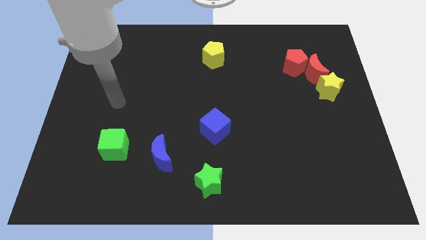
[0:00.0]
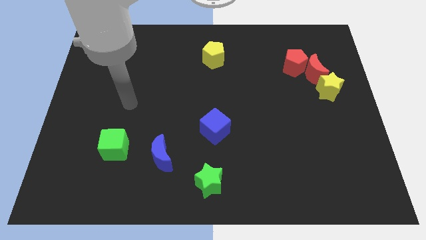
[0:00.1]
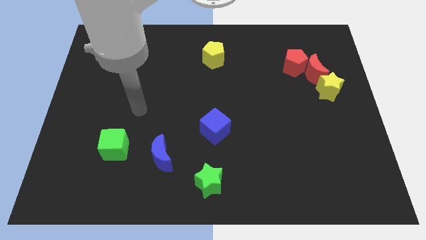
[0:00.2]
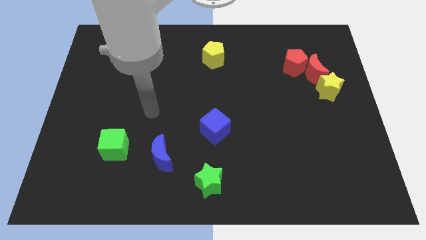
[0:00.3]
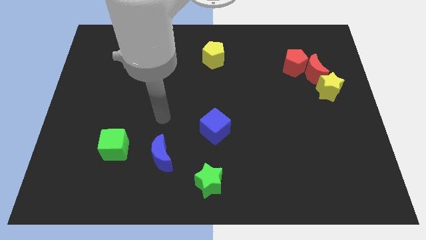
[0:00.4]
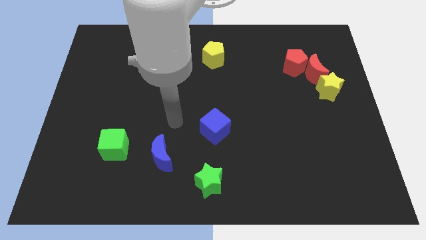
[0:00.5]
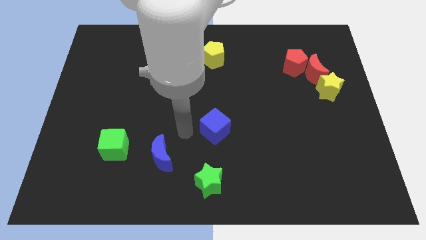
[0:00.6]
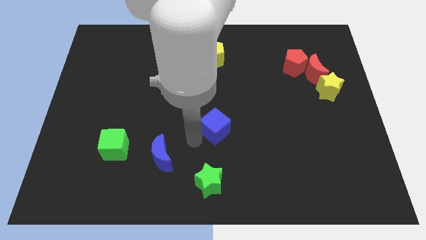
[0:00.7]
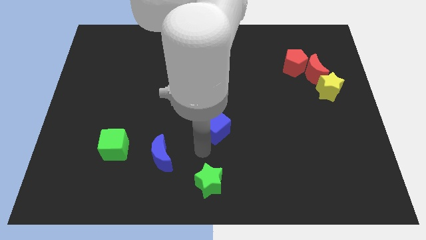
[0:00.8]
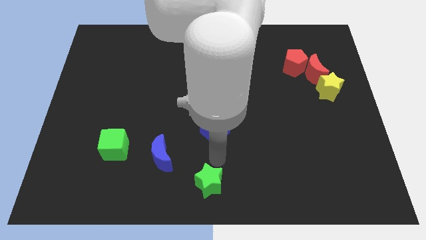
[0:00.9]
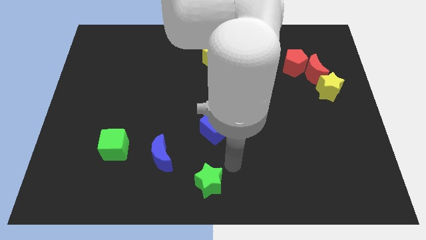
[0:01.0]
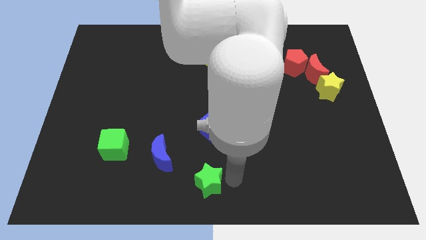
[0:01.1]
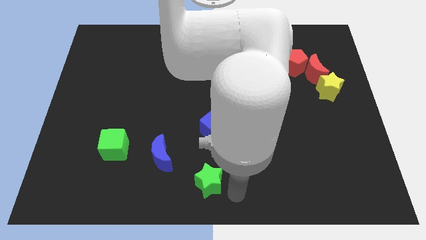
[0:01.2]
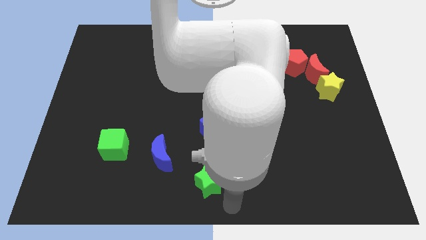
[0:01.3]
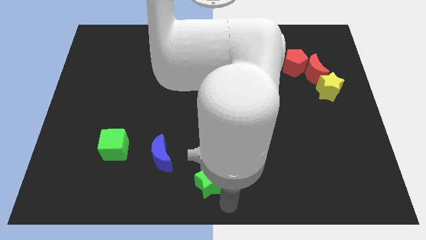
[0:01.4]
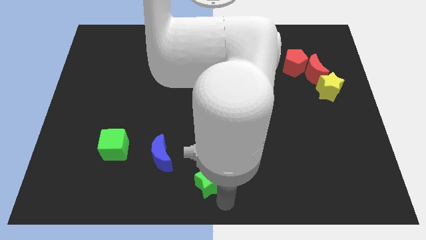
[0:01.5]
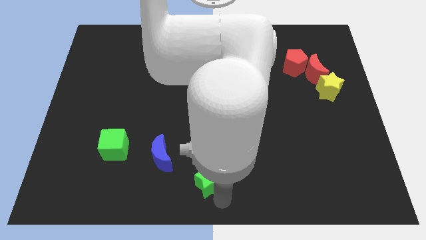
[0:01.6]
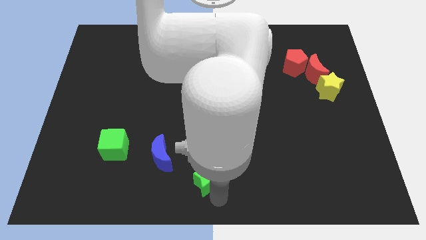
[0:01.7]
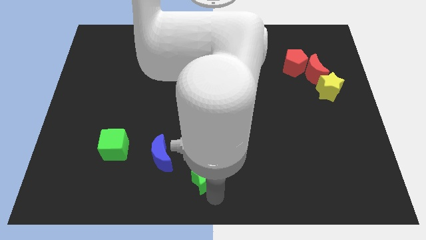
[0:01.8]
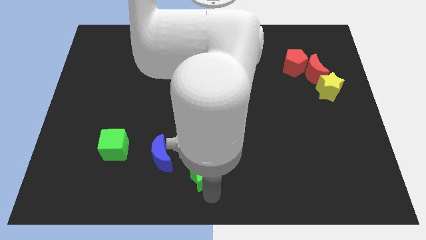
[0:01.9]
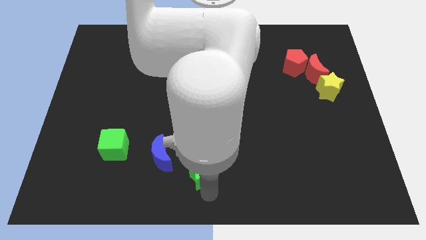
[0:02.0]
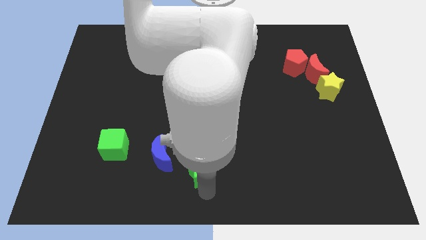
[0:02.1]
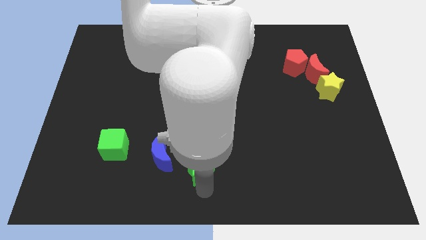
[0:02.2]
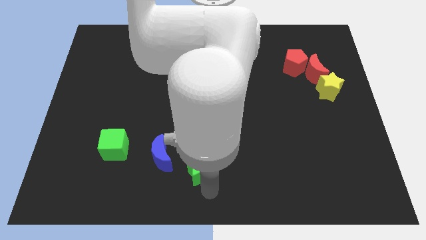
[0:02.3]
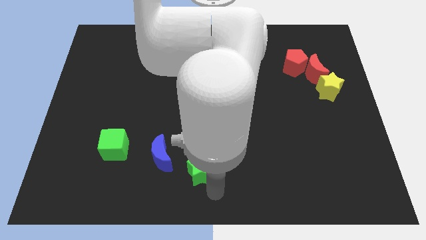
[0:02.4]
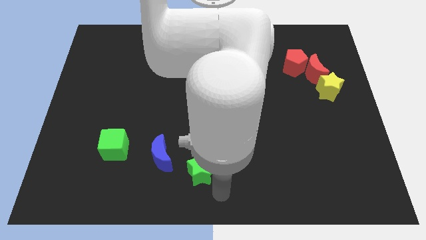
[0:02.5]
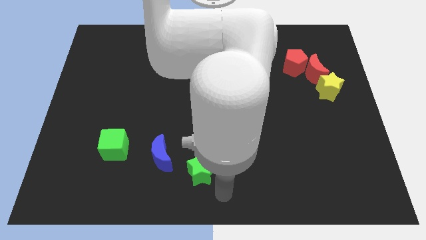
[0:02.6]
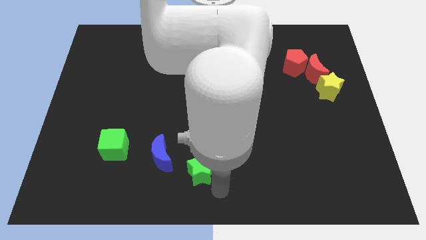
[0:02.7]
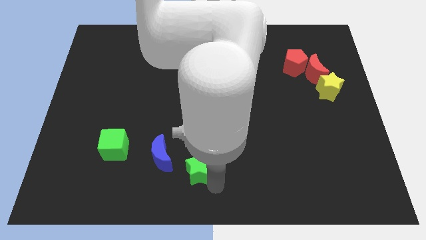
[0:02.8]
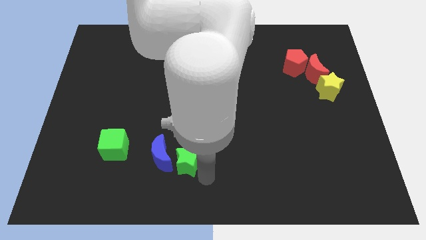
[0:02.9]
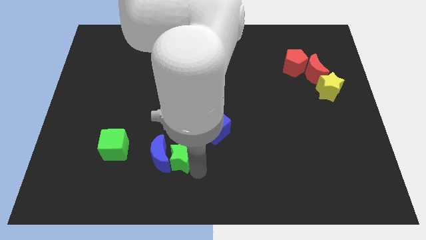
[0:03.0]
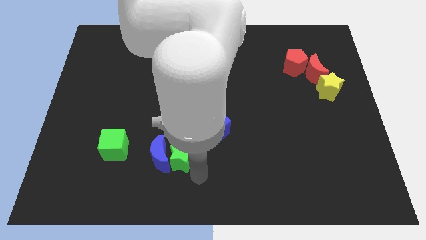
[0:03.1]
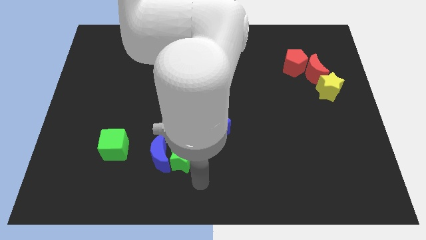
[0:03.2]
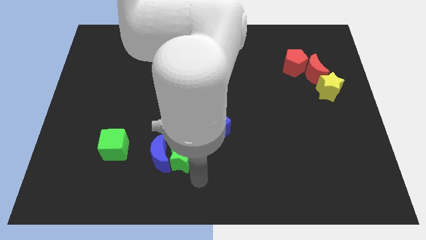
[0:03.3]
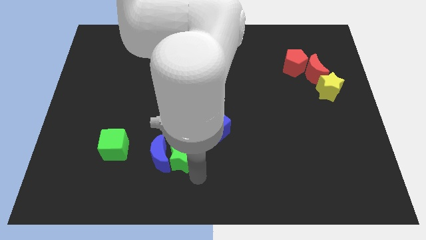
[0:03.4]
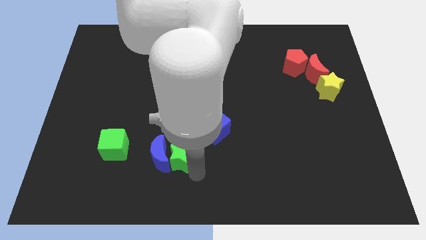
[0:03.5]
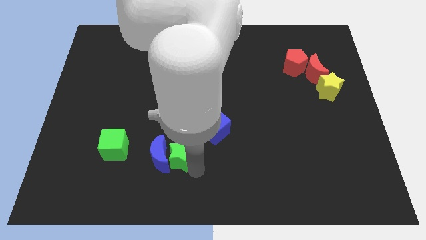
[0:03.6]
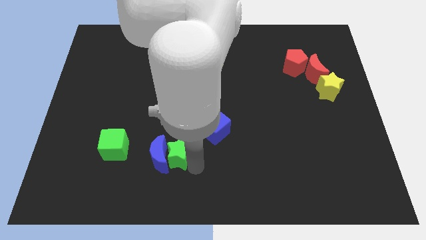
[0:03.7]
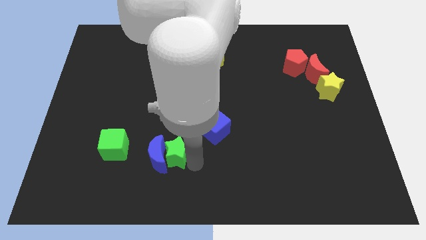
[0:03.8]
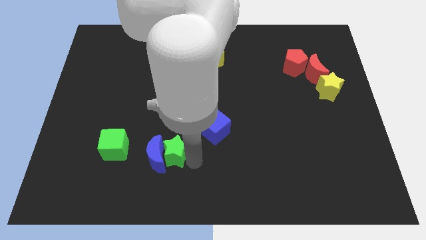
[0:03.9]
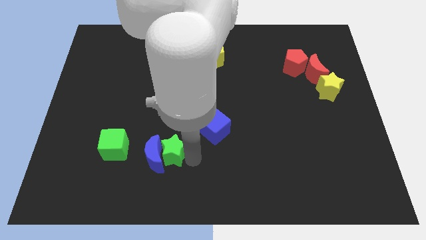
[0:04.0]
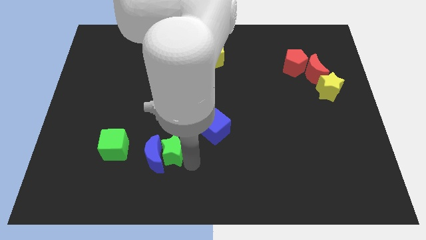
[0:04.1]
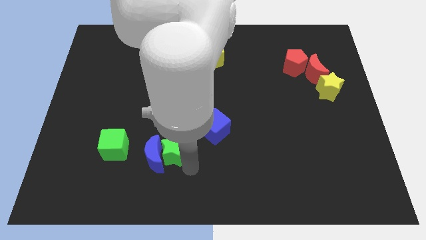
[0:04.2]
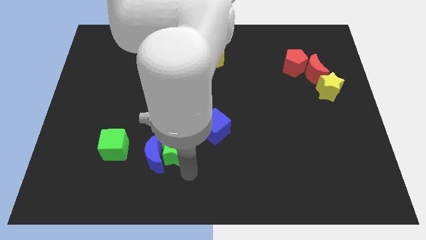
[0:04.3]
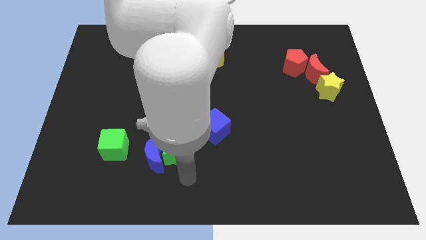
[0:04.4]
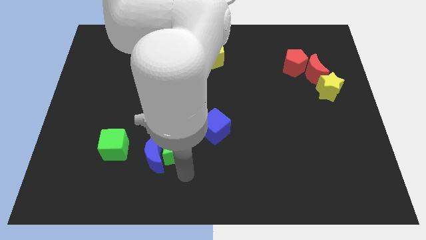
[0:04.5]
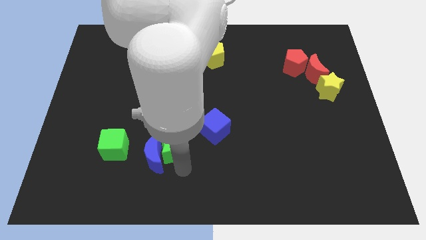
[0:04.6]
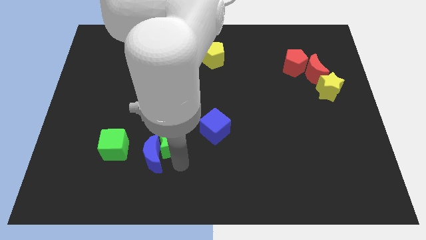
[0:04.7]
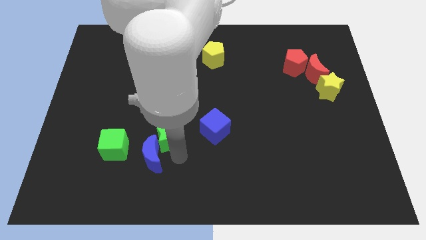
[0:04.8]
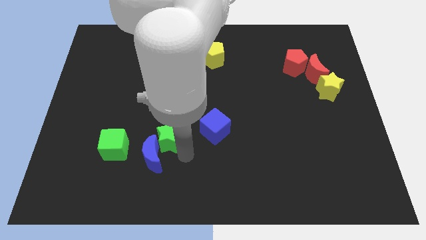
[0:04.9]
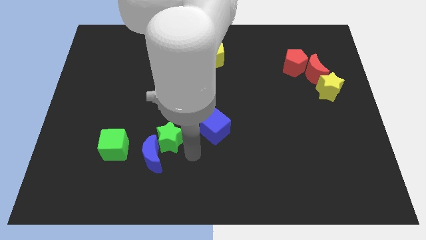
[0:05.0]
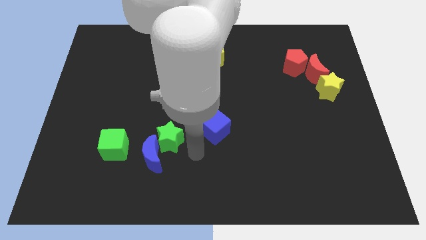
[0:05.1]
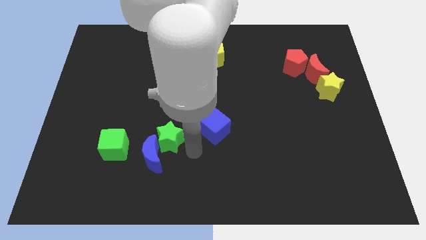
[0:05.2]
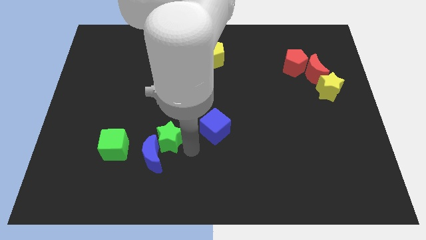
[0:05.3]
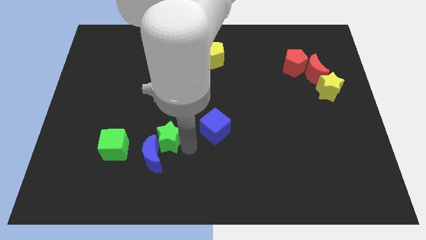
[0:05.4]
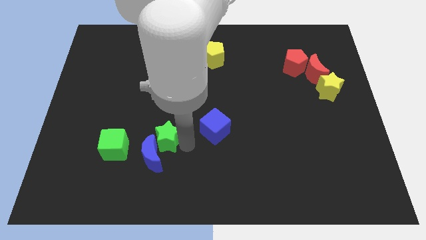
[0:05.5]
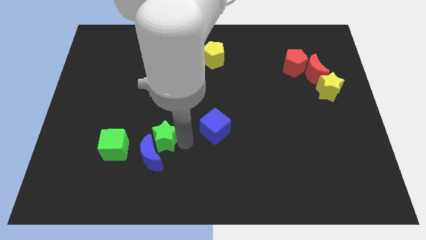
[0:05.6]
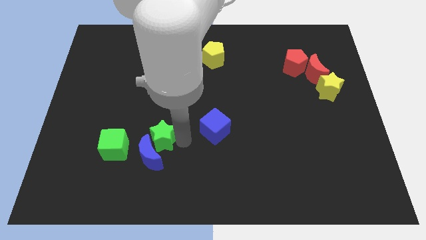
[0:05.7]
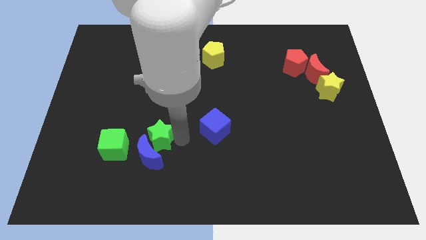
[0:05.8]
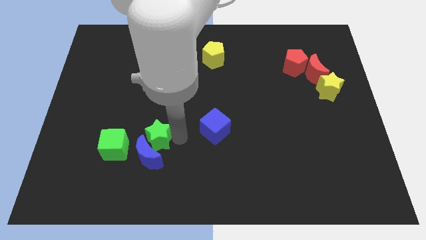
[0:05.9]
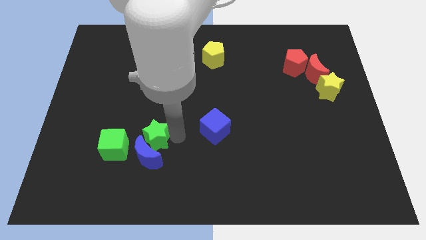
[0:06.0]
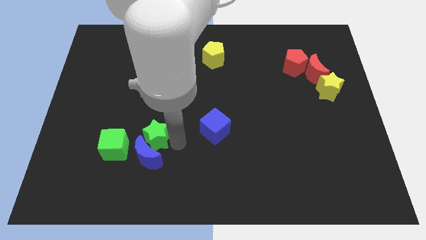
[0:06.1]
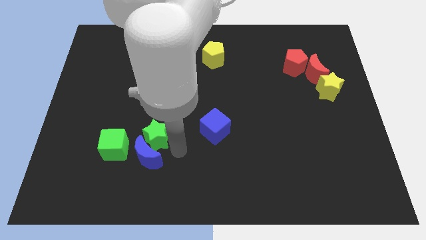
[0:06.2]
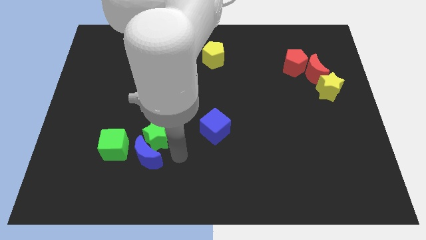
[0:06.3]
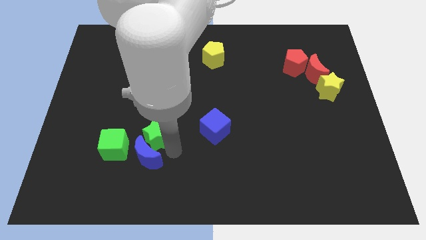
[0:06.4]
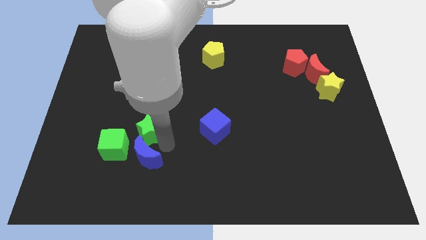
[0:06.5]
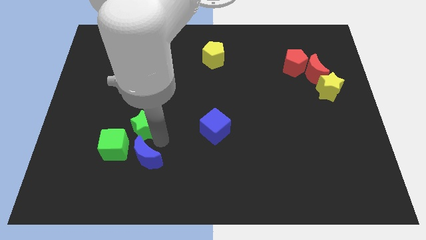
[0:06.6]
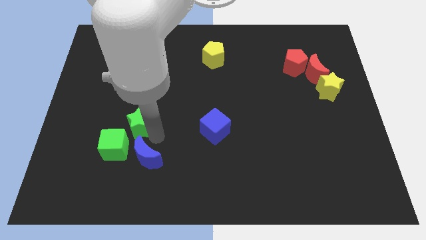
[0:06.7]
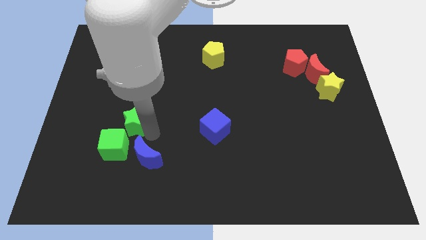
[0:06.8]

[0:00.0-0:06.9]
move the green star to the top side of the green cube

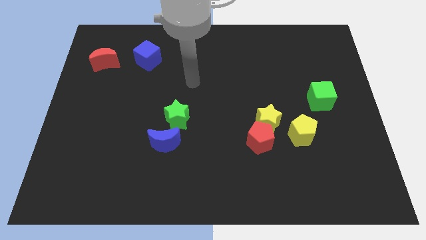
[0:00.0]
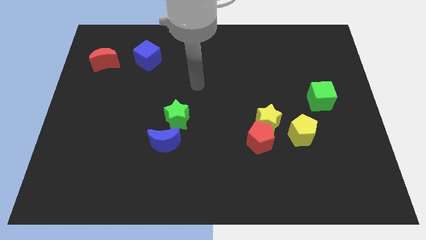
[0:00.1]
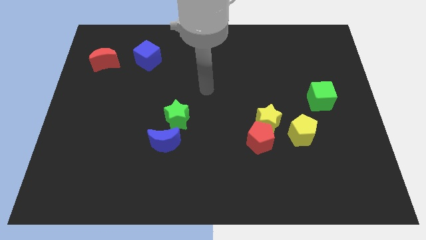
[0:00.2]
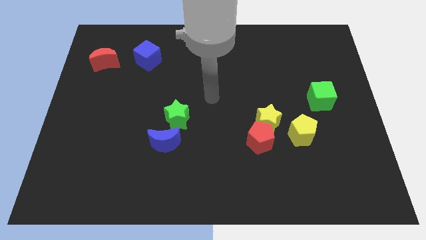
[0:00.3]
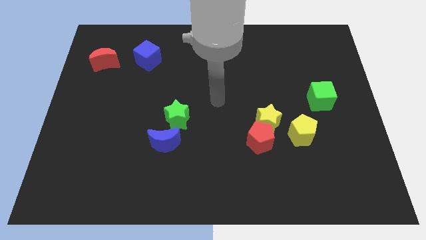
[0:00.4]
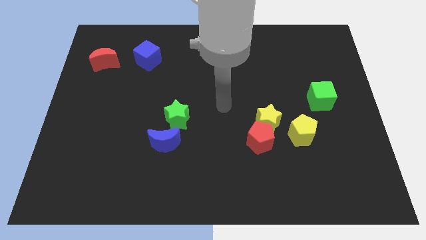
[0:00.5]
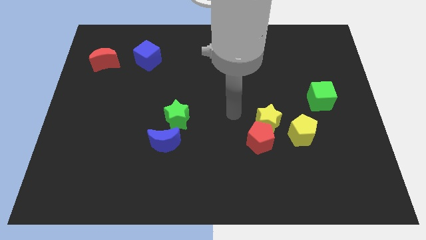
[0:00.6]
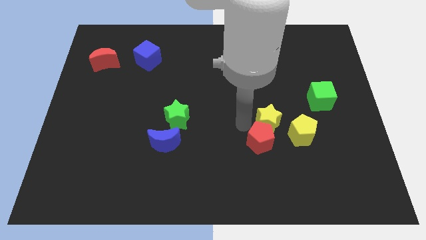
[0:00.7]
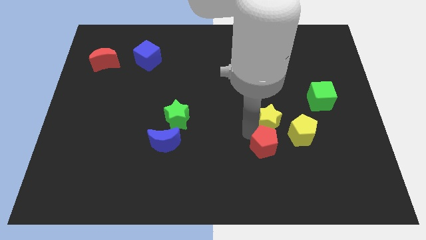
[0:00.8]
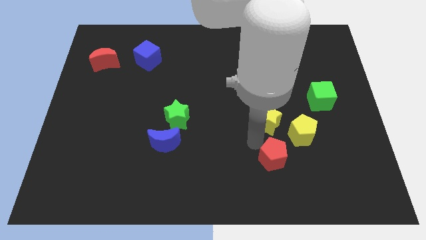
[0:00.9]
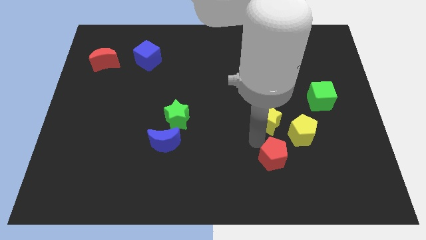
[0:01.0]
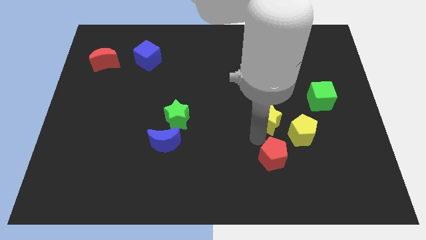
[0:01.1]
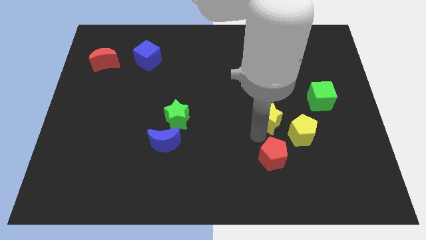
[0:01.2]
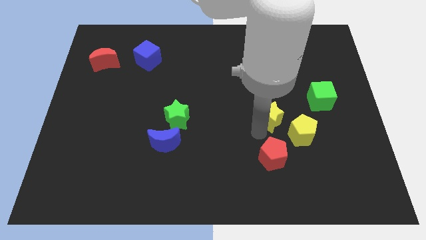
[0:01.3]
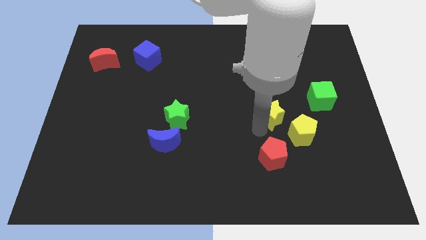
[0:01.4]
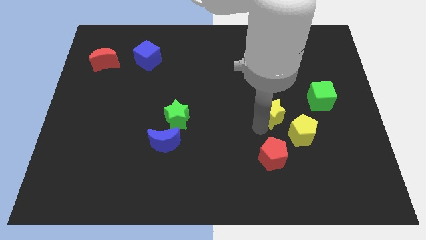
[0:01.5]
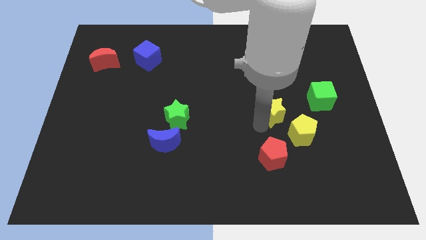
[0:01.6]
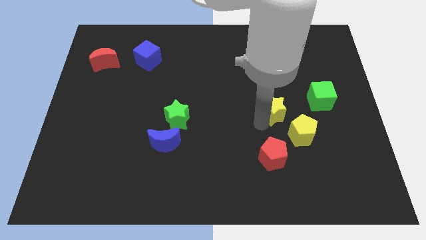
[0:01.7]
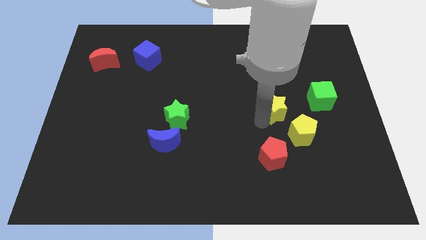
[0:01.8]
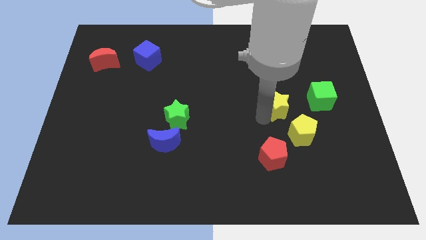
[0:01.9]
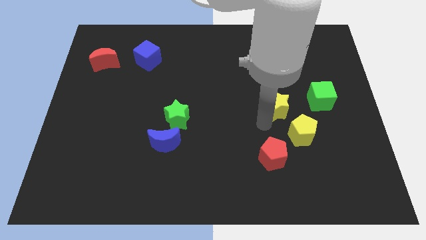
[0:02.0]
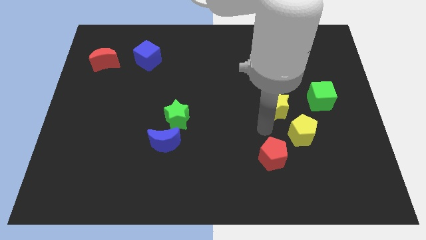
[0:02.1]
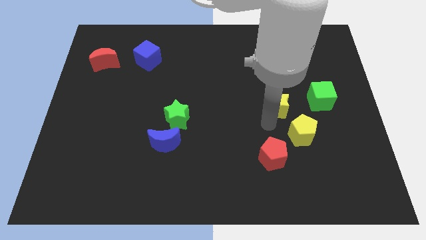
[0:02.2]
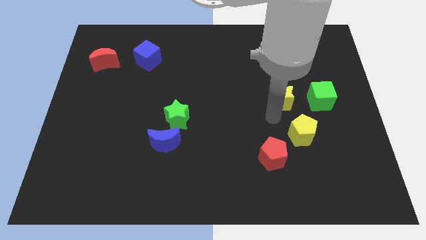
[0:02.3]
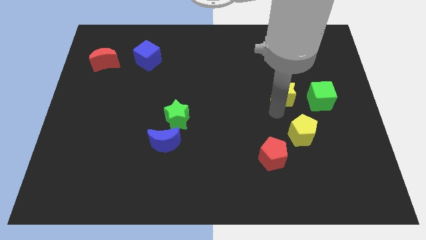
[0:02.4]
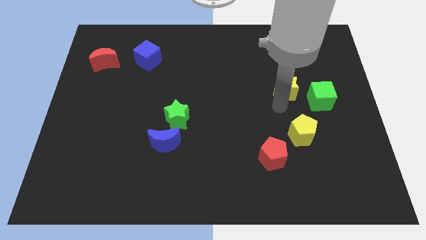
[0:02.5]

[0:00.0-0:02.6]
push the yellow star diagonally up and to the left of the green cube
